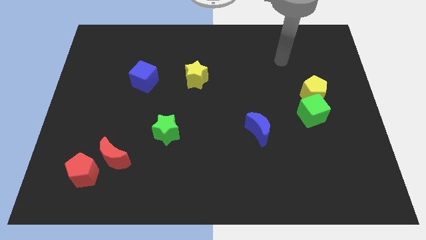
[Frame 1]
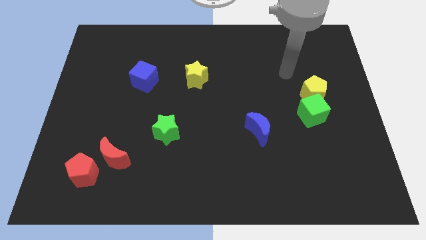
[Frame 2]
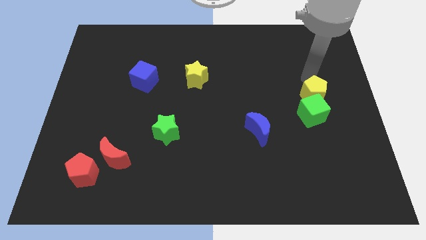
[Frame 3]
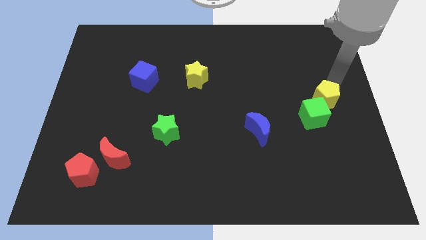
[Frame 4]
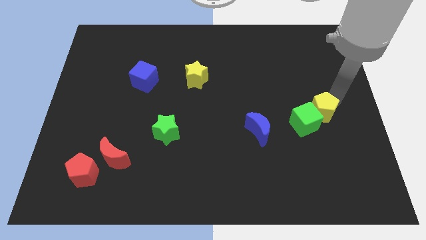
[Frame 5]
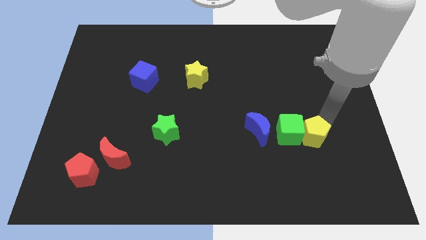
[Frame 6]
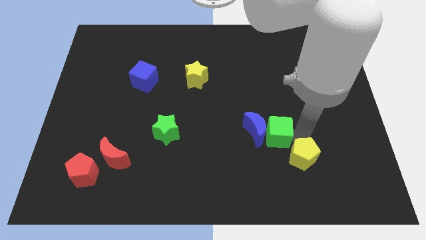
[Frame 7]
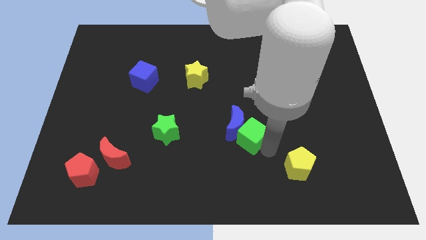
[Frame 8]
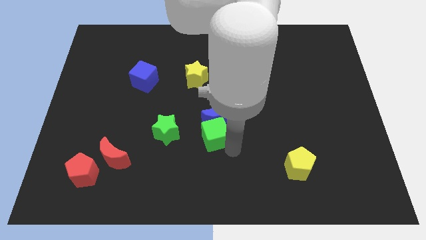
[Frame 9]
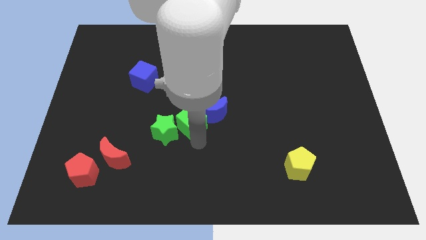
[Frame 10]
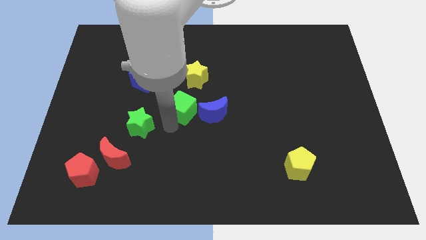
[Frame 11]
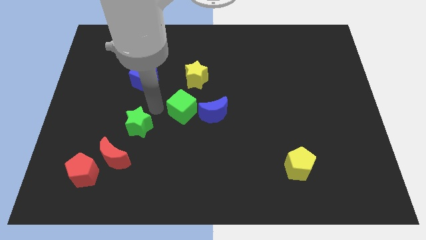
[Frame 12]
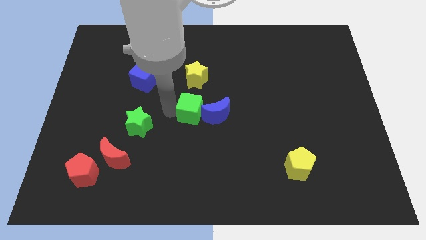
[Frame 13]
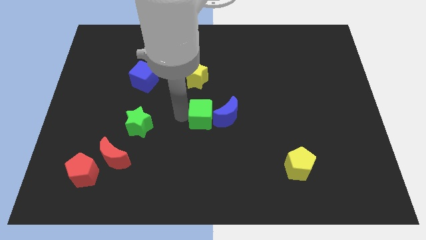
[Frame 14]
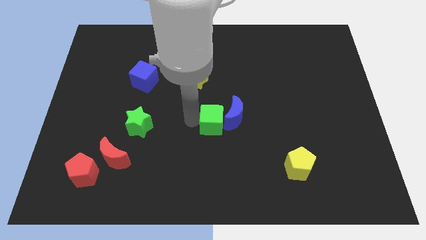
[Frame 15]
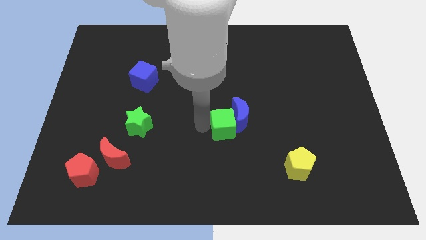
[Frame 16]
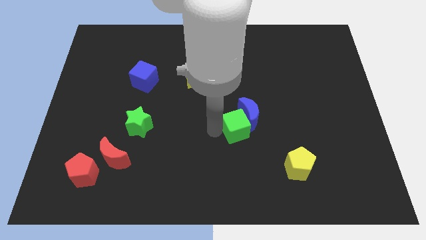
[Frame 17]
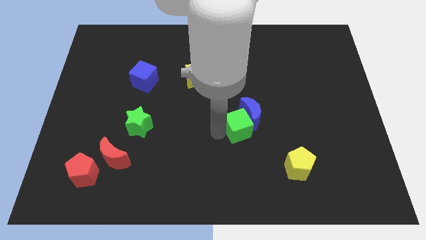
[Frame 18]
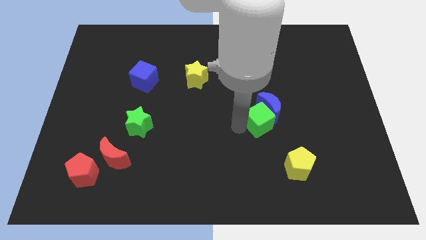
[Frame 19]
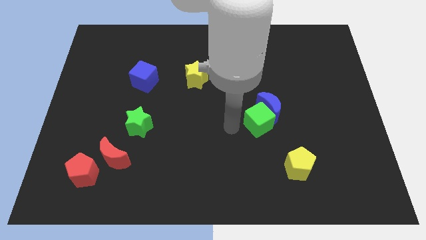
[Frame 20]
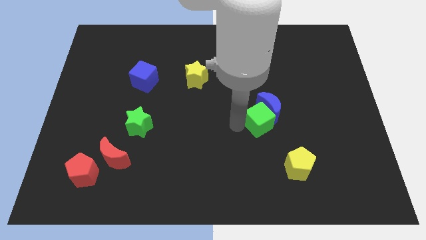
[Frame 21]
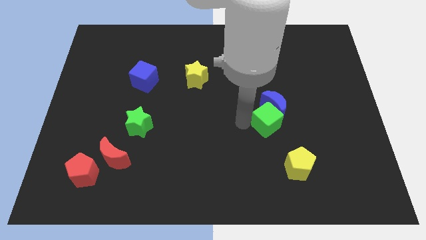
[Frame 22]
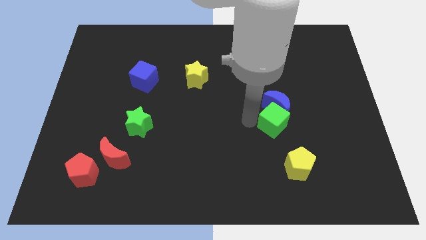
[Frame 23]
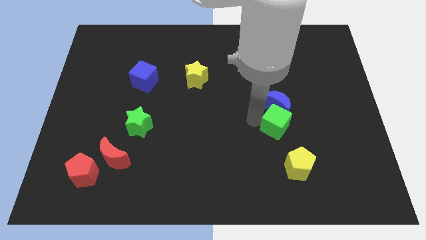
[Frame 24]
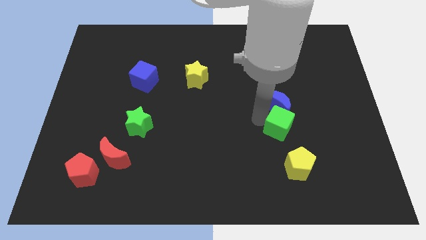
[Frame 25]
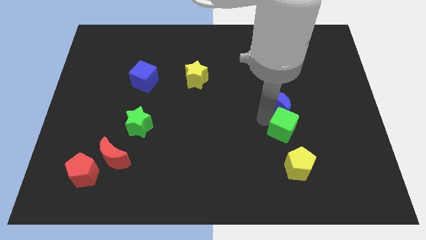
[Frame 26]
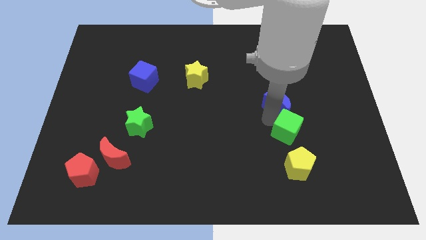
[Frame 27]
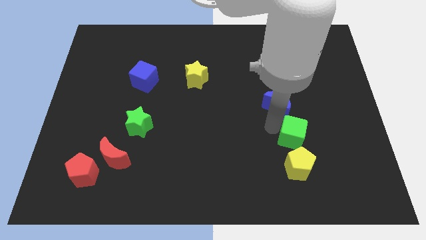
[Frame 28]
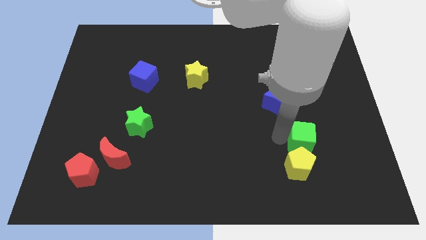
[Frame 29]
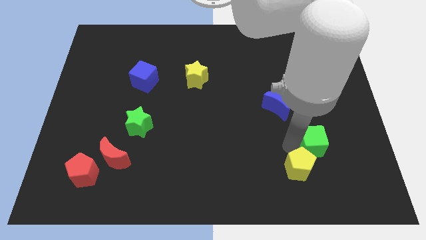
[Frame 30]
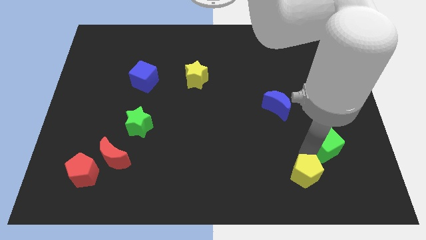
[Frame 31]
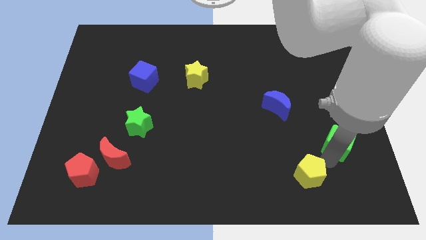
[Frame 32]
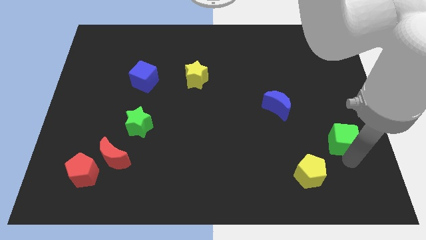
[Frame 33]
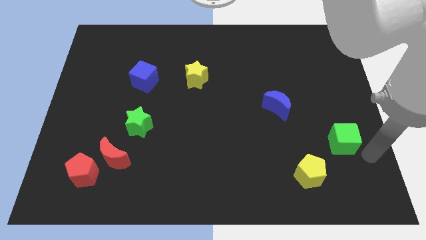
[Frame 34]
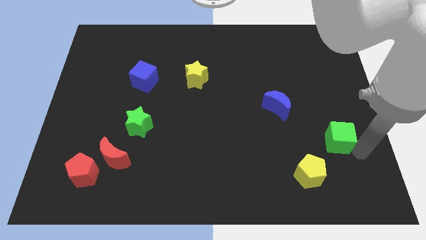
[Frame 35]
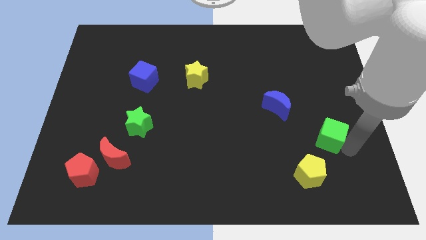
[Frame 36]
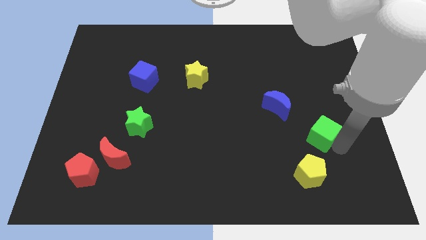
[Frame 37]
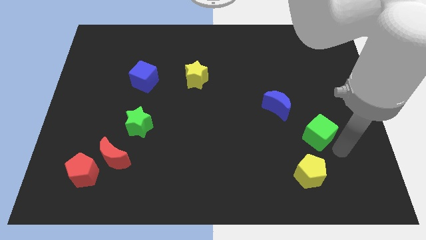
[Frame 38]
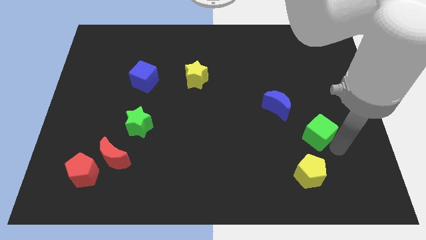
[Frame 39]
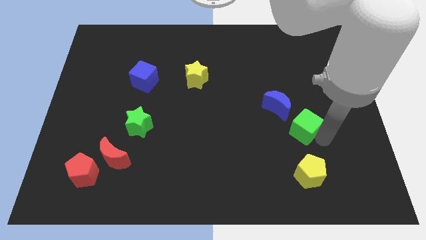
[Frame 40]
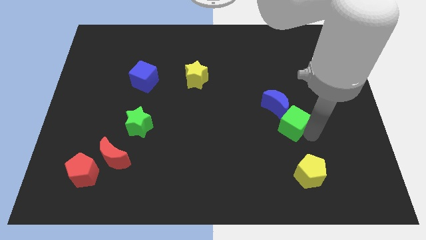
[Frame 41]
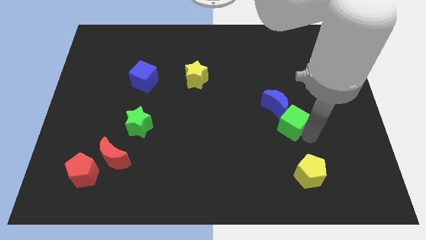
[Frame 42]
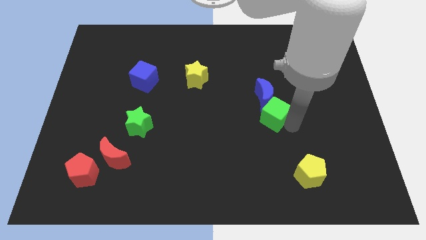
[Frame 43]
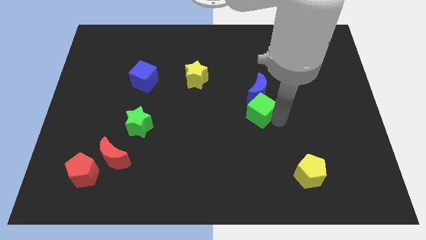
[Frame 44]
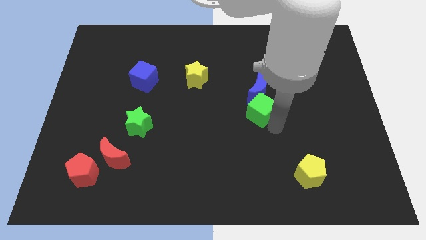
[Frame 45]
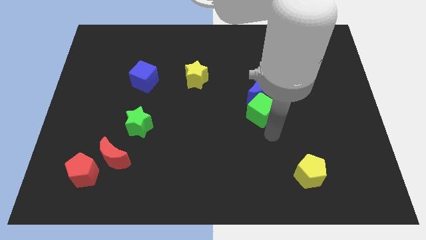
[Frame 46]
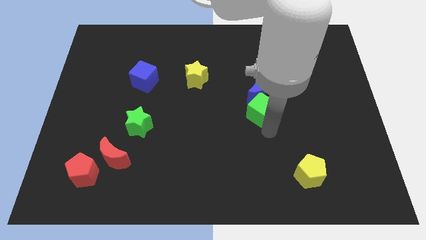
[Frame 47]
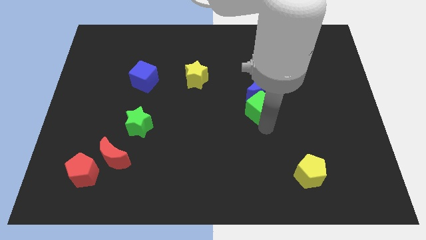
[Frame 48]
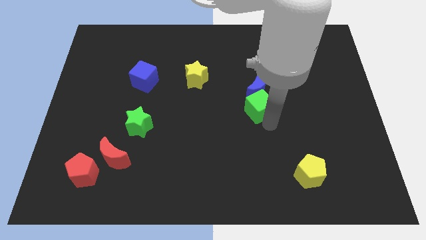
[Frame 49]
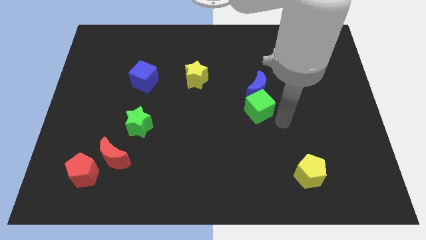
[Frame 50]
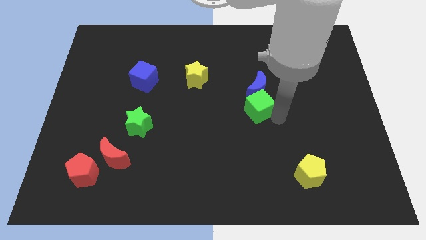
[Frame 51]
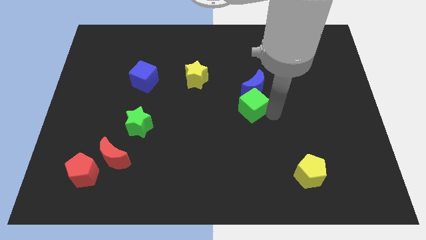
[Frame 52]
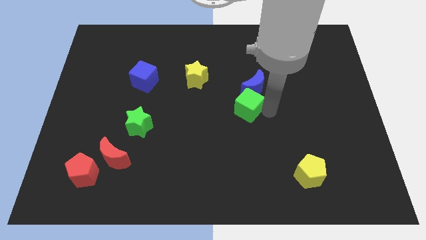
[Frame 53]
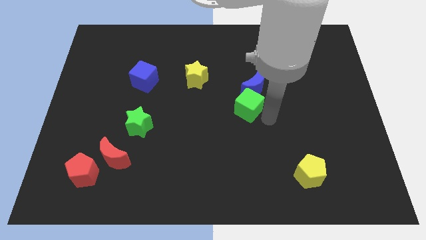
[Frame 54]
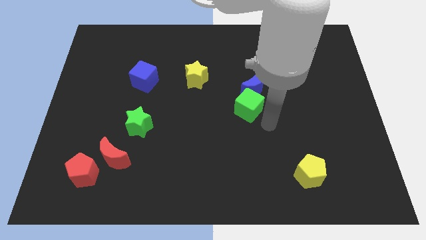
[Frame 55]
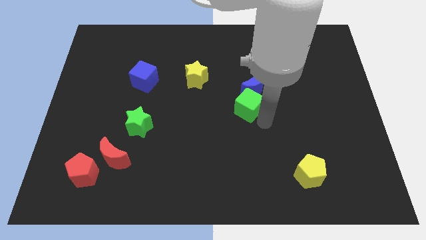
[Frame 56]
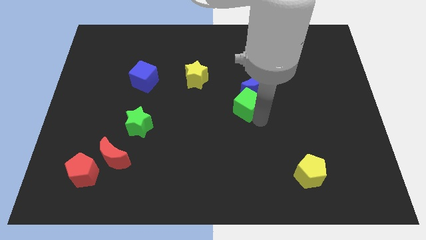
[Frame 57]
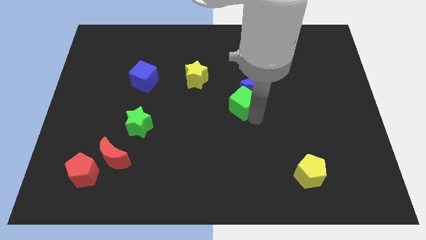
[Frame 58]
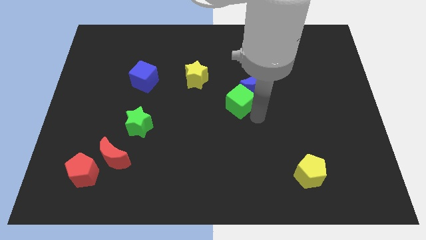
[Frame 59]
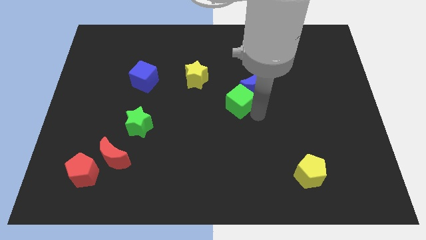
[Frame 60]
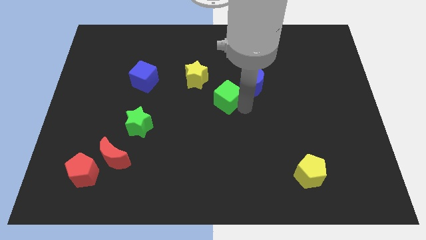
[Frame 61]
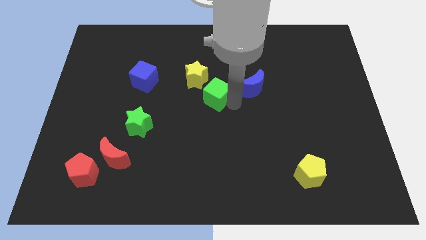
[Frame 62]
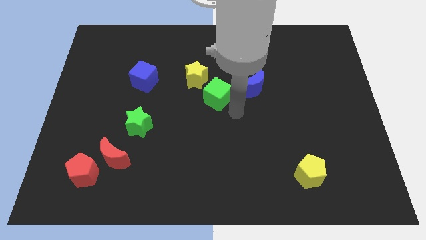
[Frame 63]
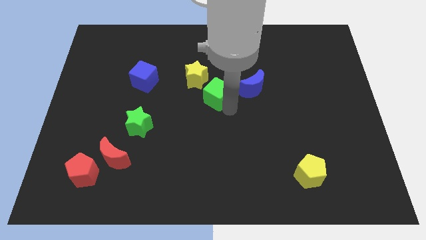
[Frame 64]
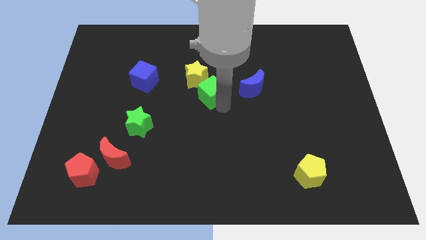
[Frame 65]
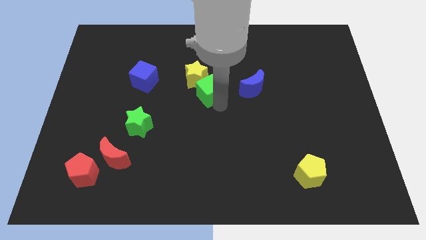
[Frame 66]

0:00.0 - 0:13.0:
slide the green cube towards the yellow star
